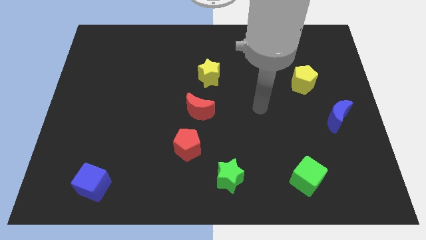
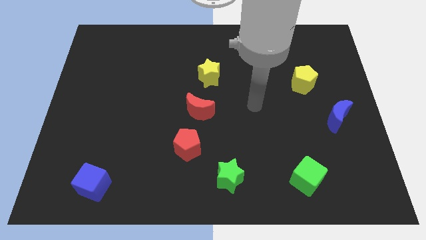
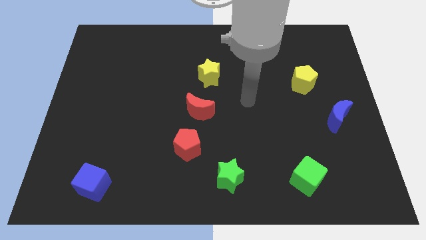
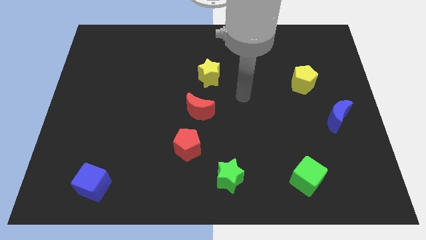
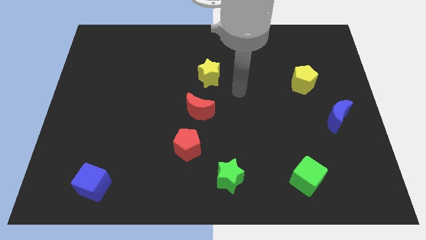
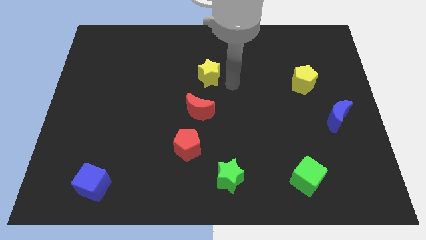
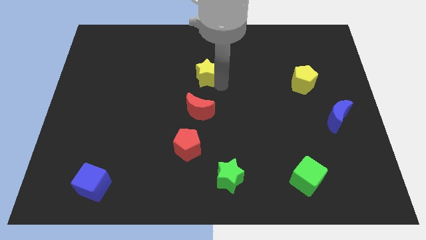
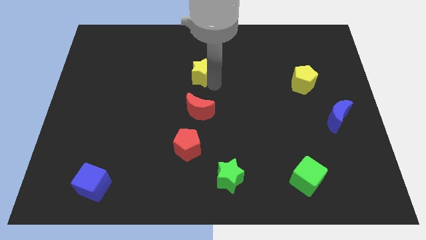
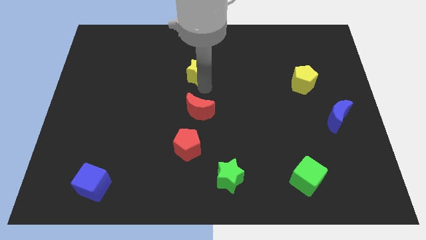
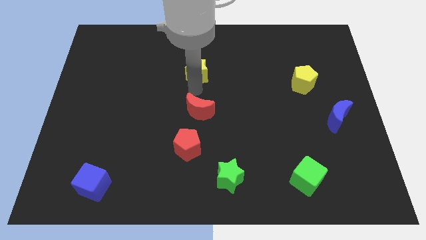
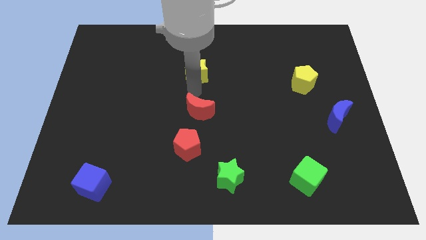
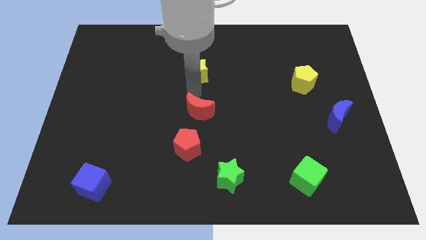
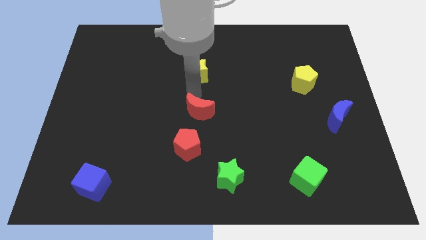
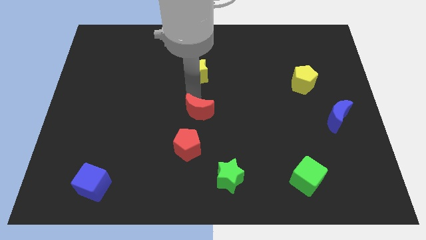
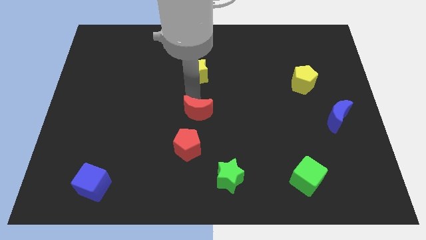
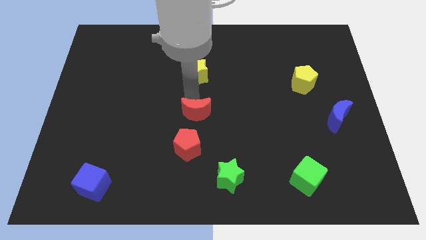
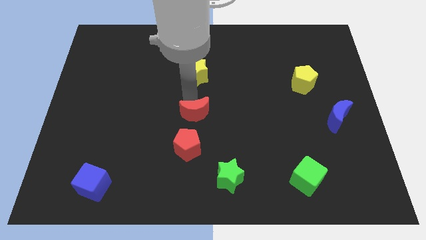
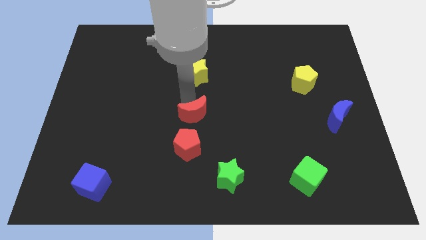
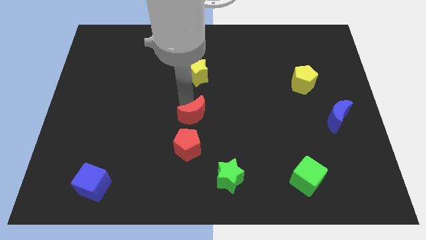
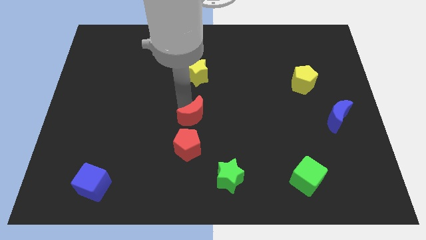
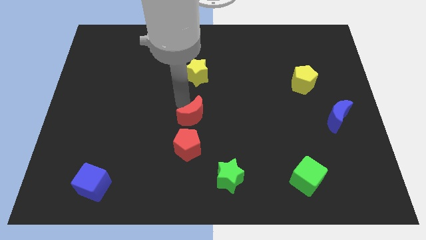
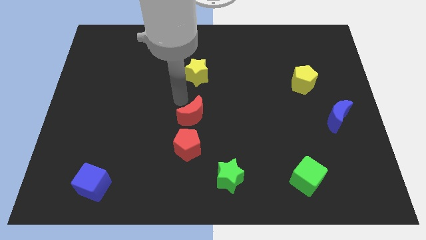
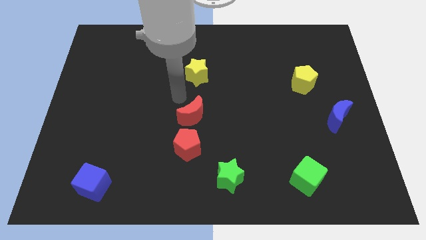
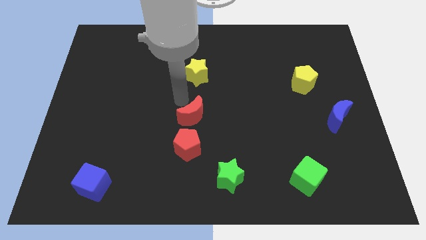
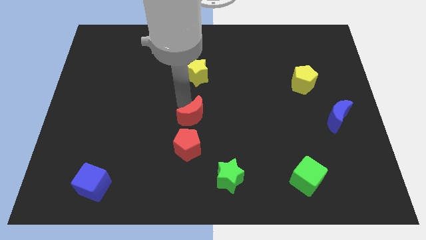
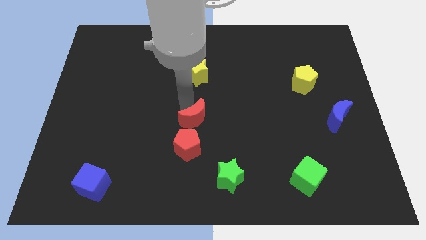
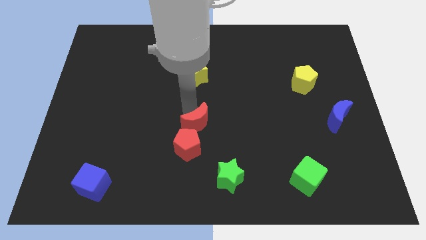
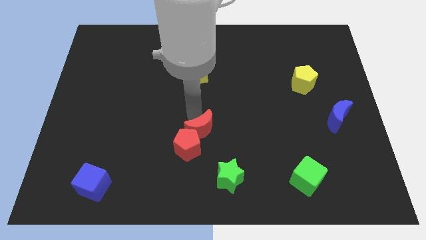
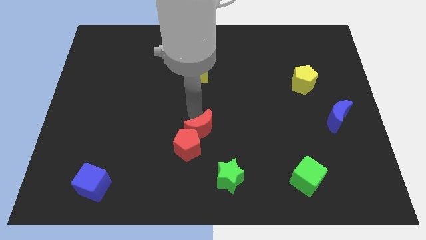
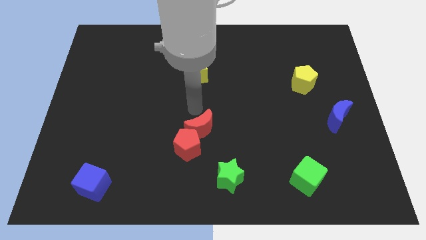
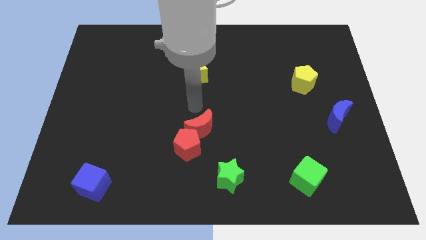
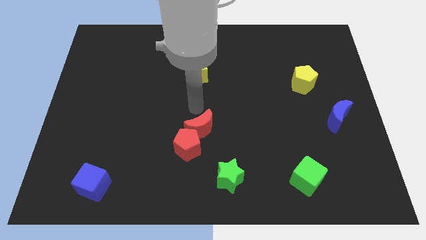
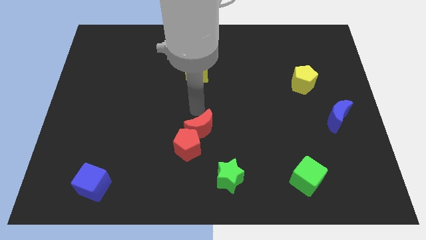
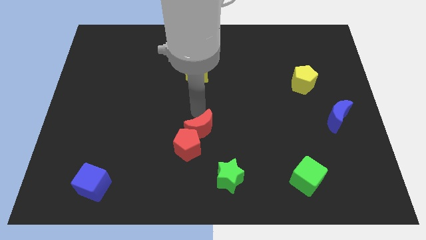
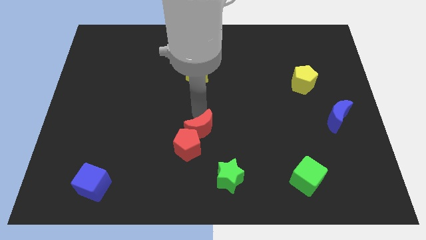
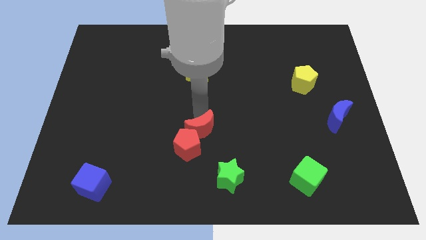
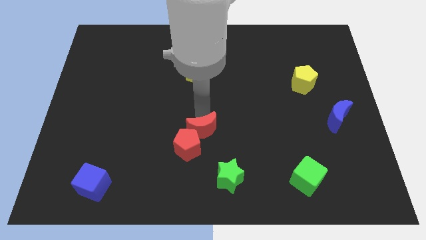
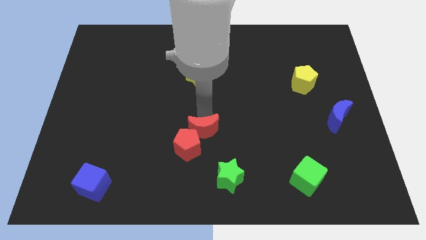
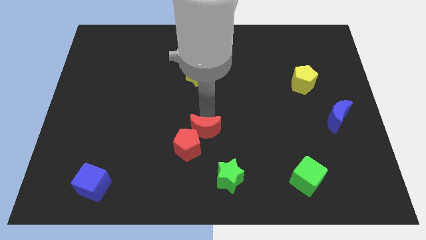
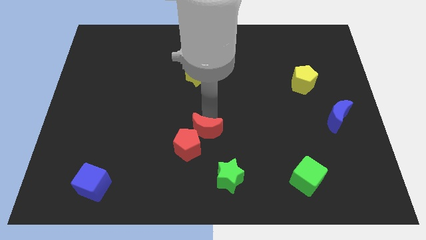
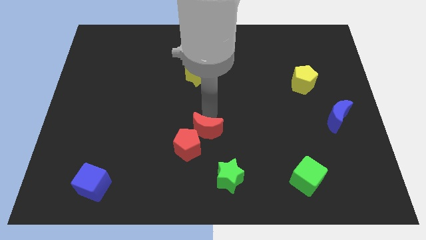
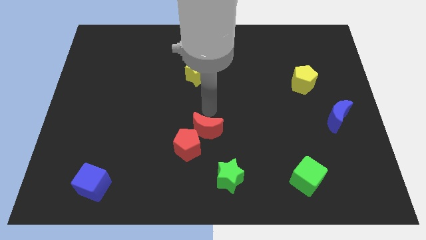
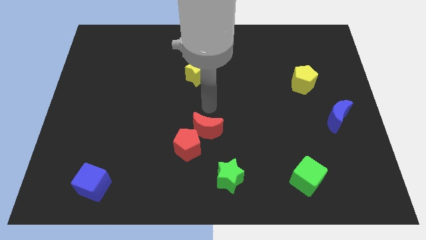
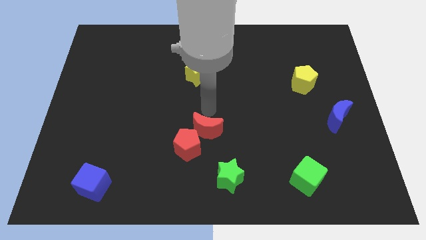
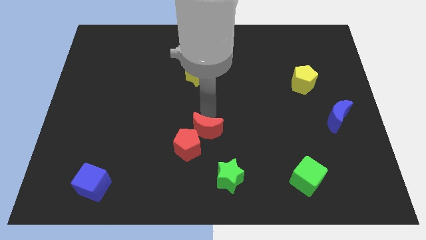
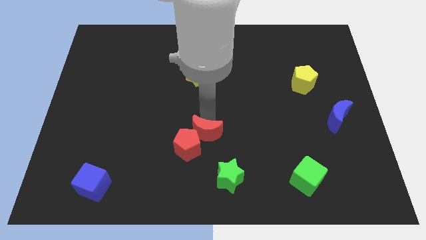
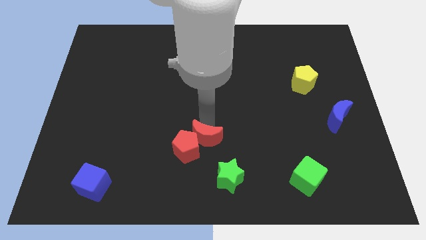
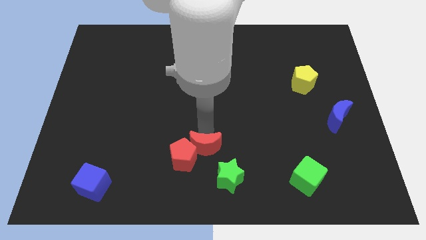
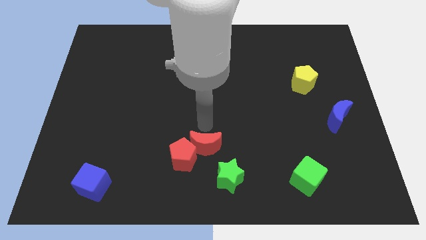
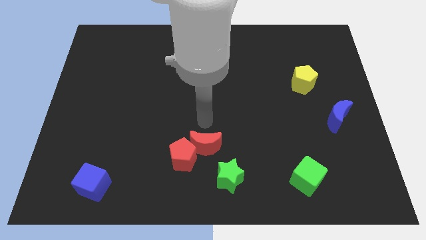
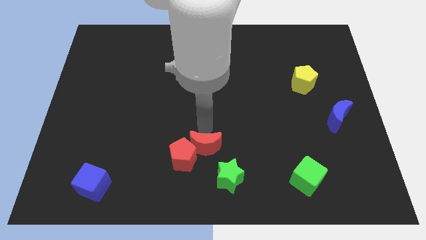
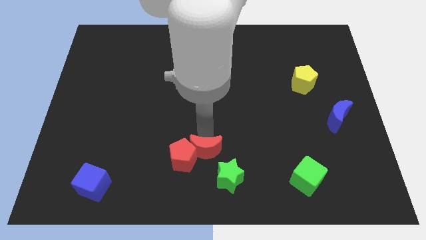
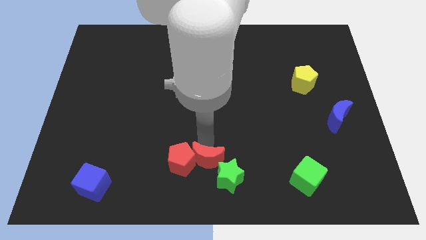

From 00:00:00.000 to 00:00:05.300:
put the red moon diagonally down and to the right of the red pentagon

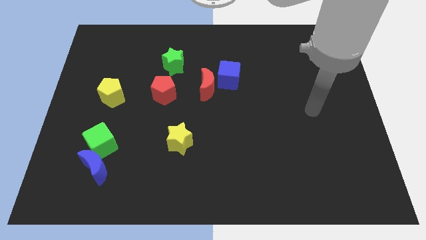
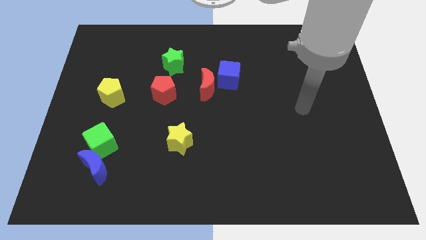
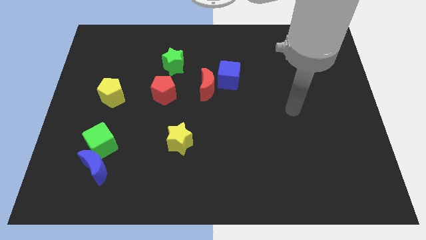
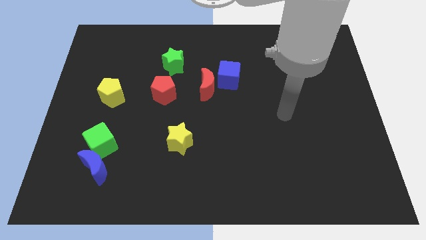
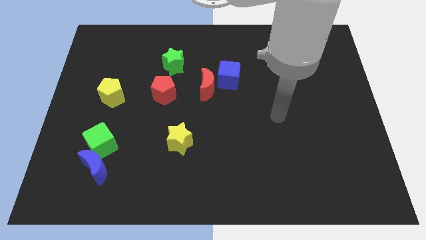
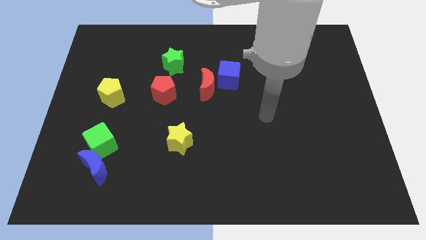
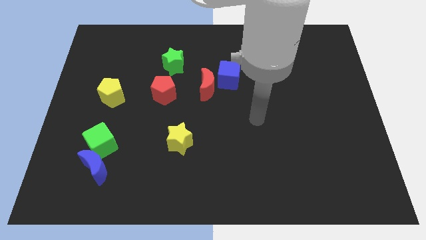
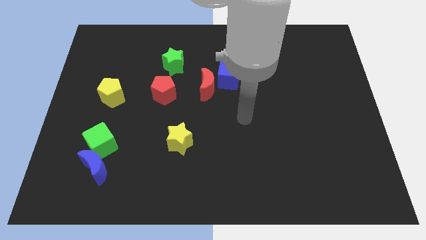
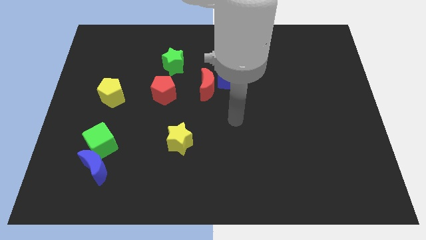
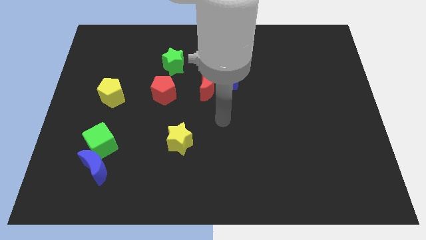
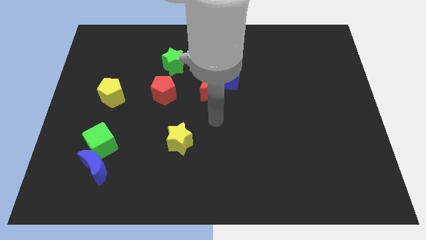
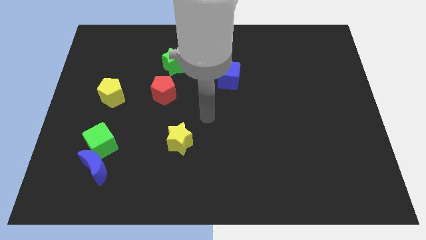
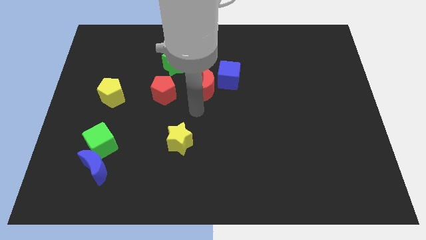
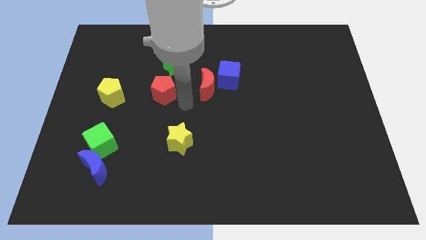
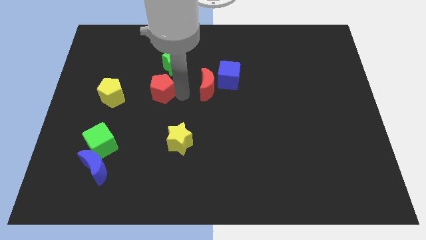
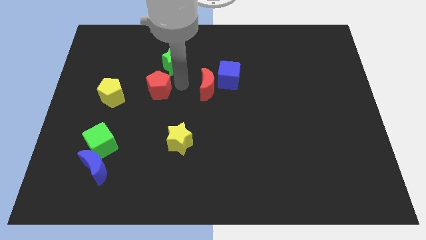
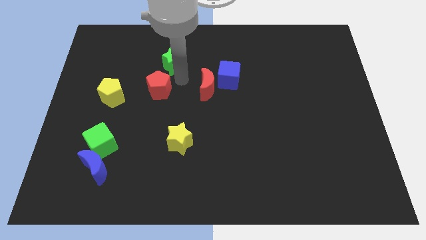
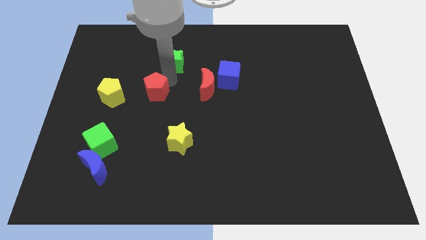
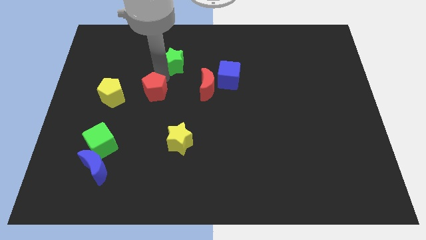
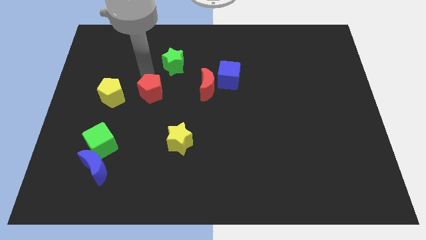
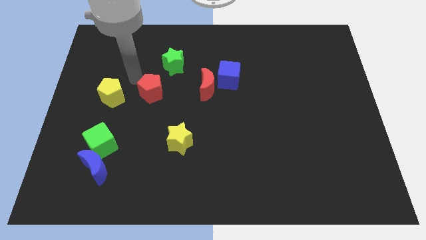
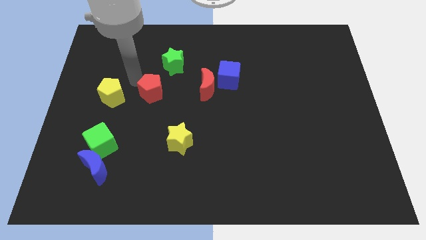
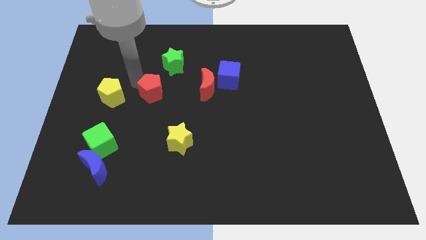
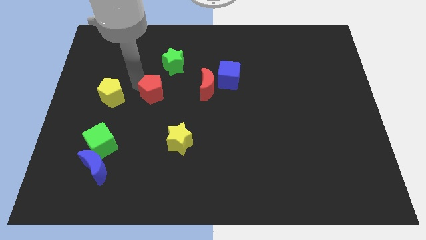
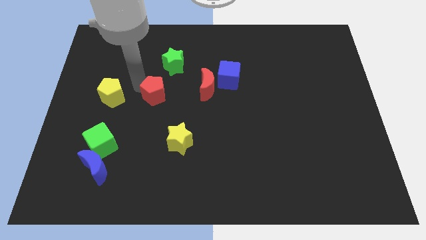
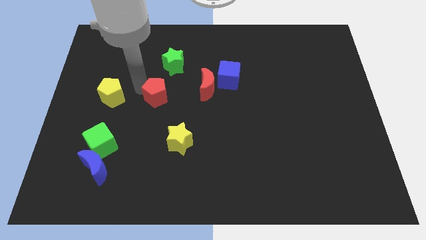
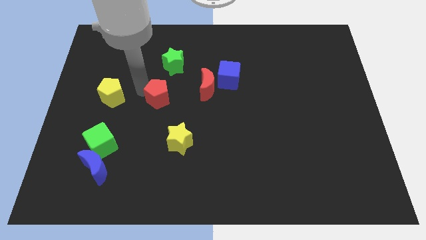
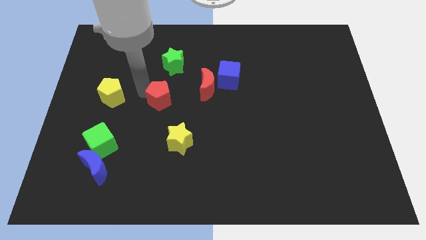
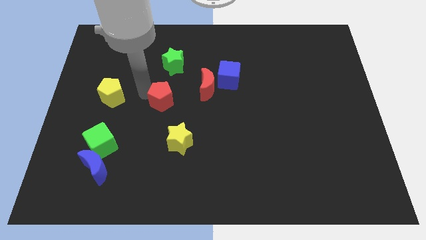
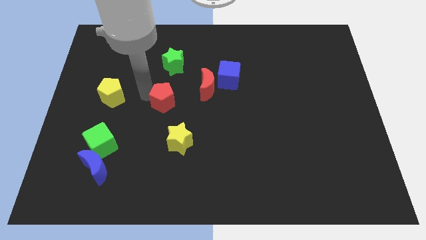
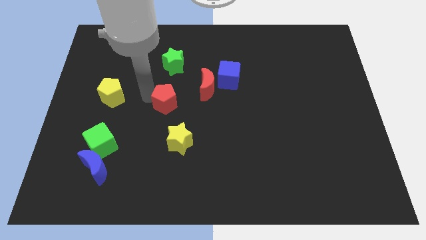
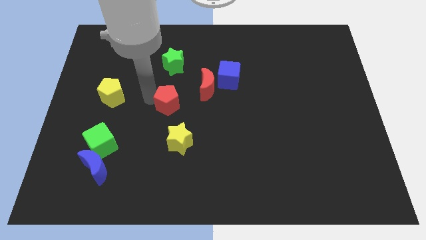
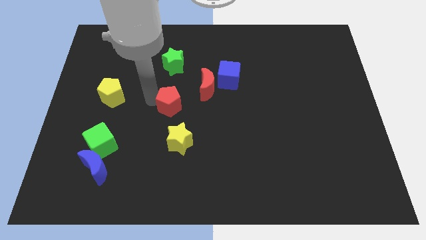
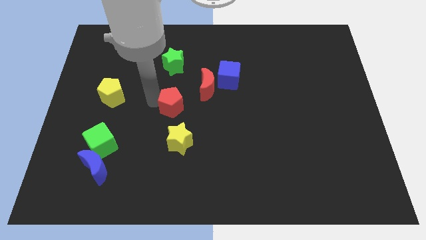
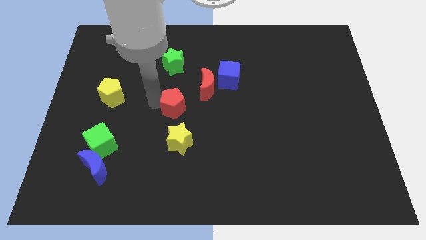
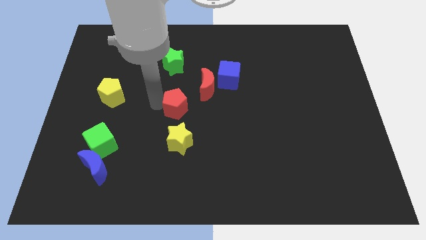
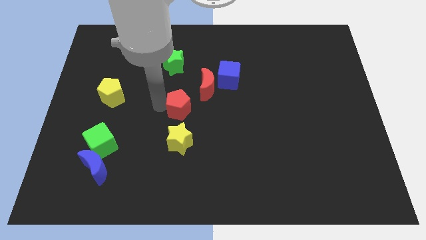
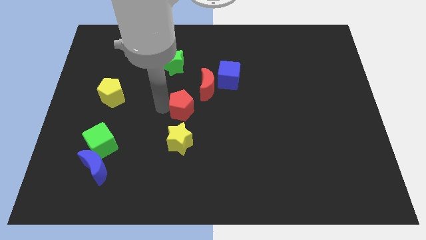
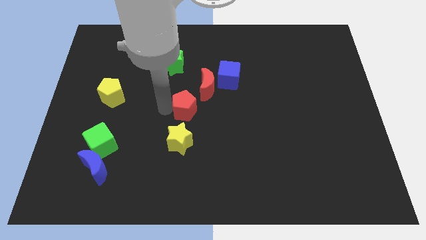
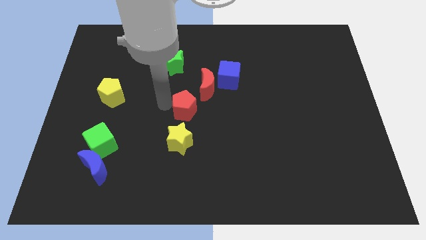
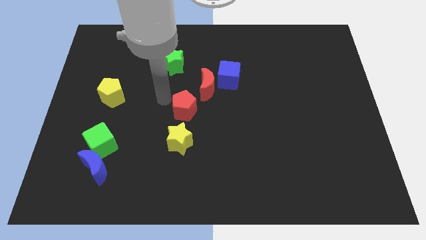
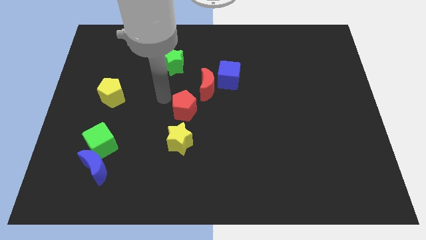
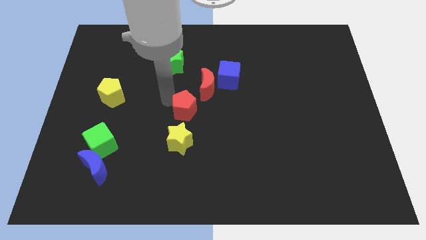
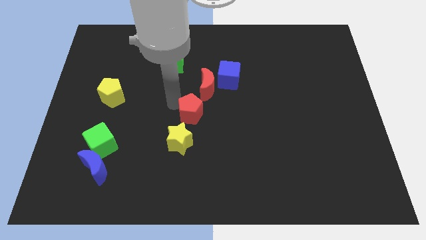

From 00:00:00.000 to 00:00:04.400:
slide the red pentagon below the red moon
